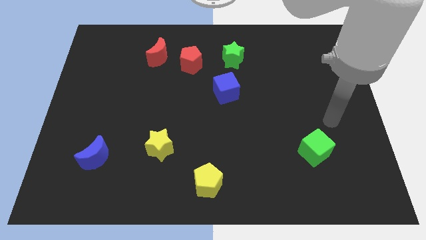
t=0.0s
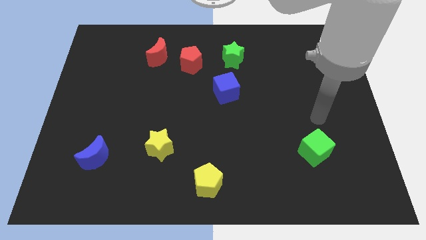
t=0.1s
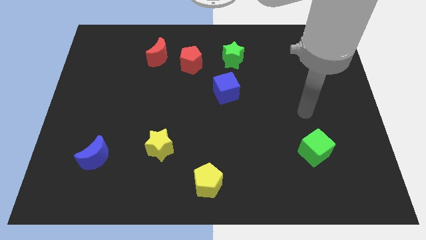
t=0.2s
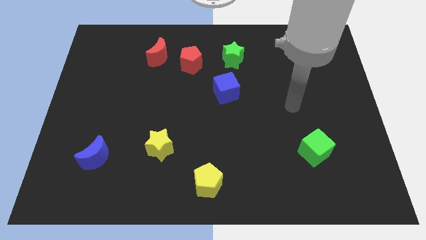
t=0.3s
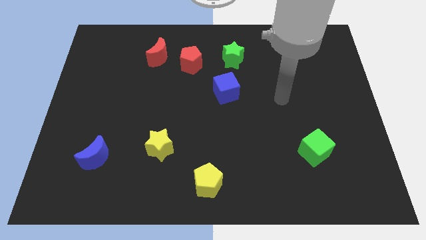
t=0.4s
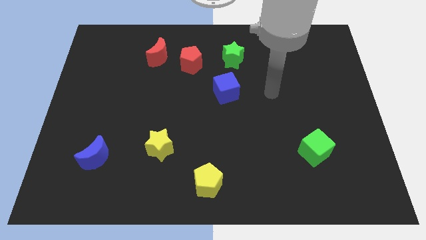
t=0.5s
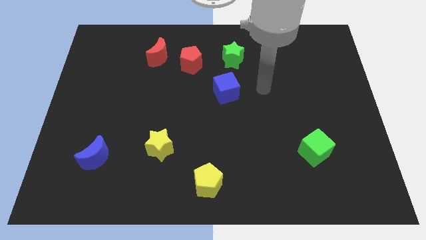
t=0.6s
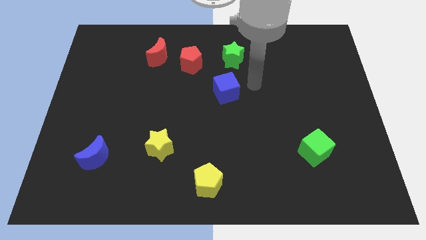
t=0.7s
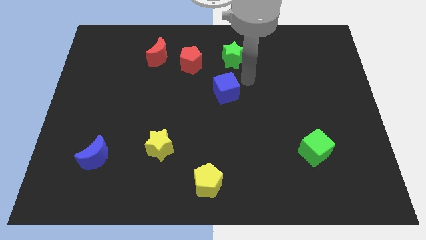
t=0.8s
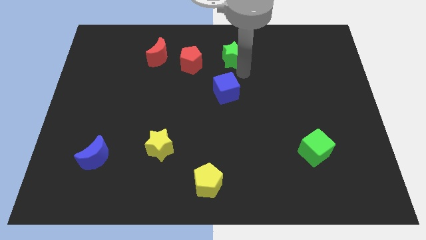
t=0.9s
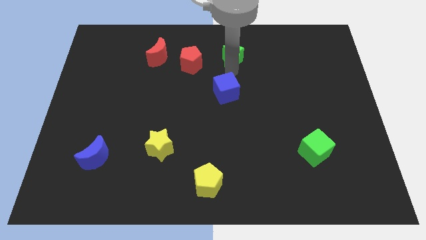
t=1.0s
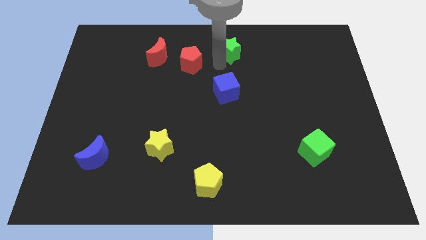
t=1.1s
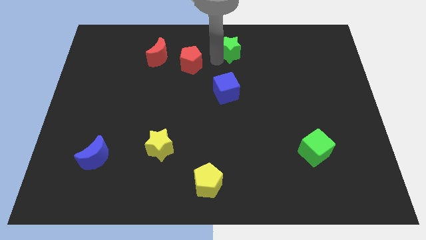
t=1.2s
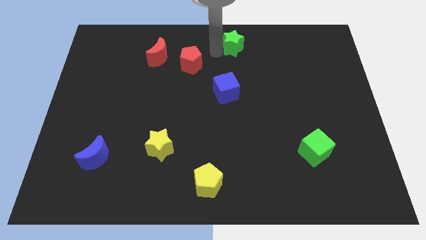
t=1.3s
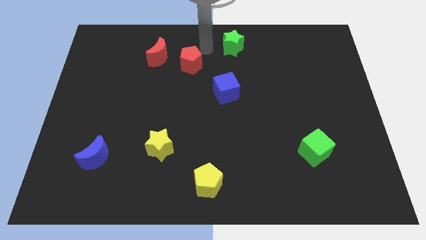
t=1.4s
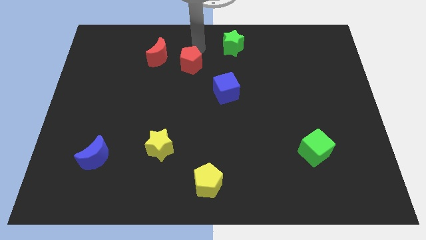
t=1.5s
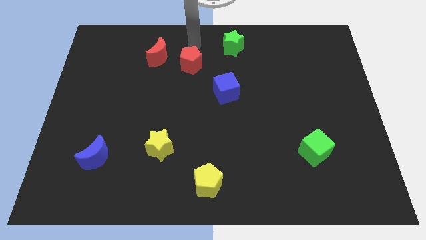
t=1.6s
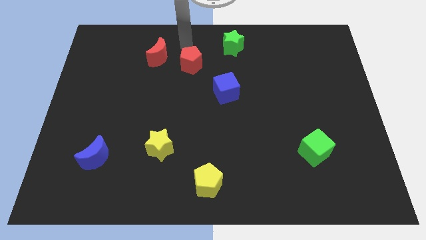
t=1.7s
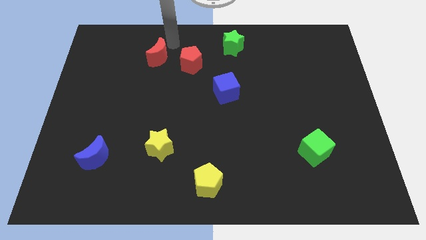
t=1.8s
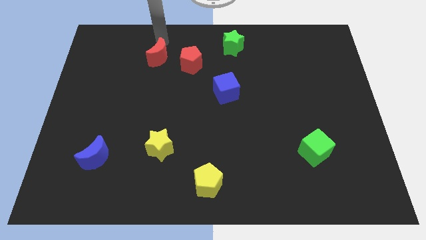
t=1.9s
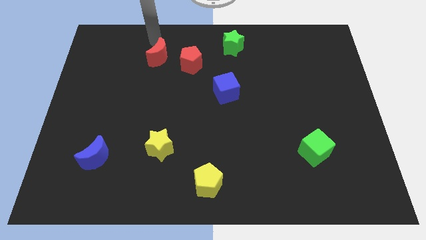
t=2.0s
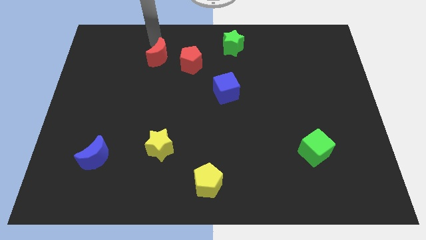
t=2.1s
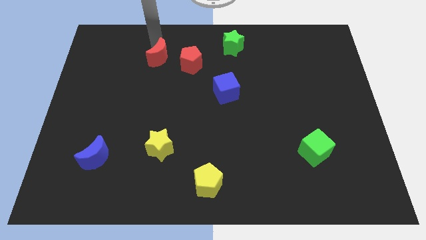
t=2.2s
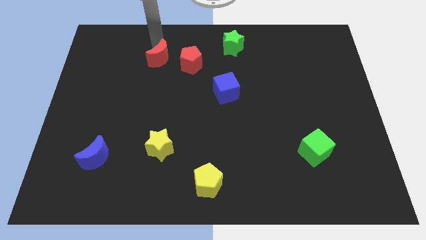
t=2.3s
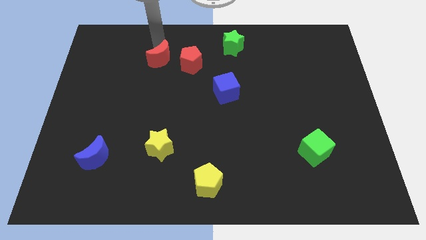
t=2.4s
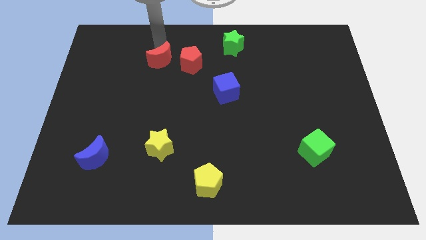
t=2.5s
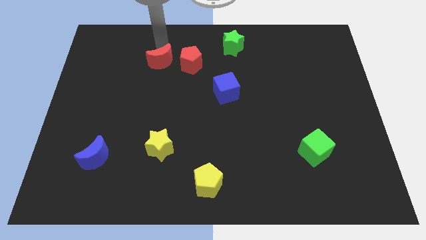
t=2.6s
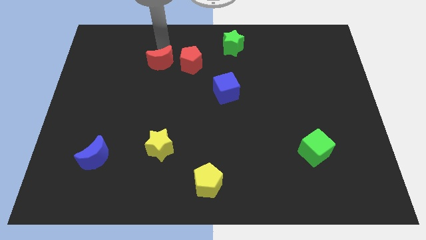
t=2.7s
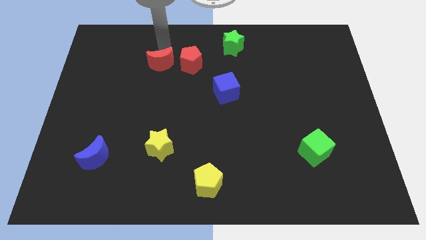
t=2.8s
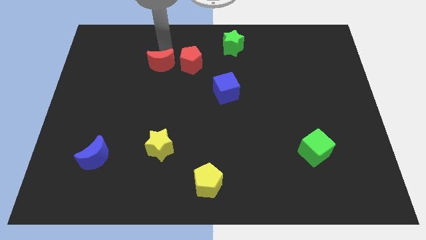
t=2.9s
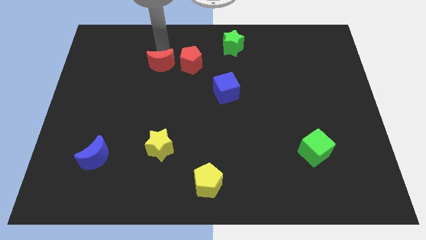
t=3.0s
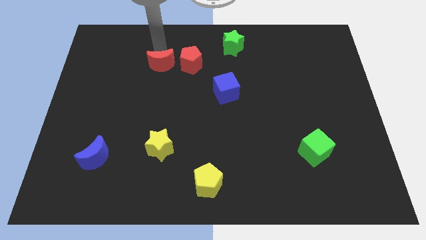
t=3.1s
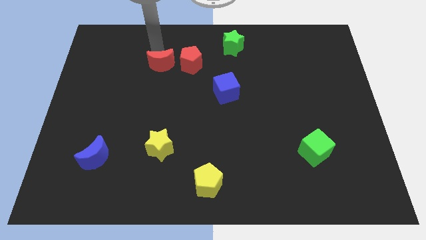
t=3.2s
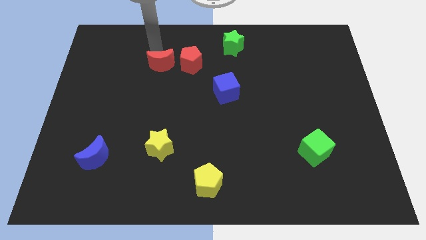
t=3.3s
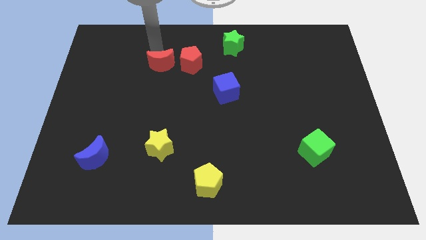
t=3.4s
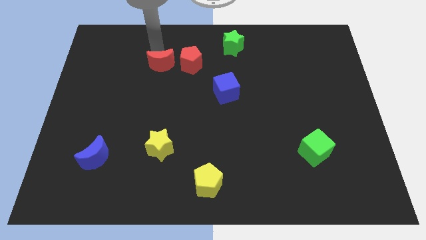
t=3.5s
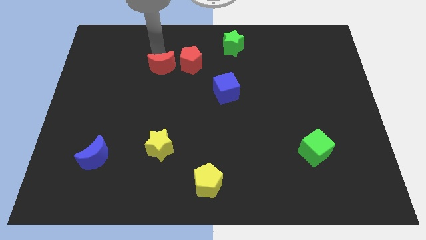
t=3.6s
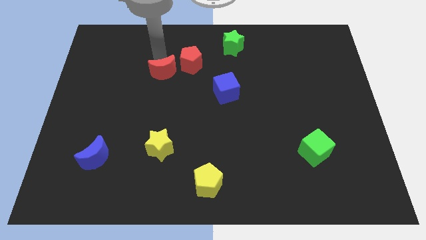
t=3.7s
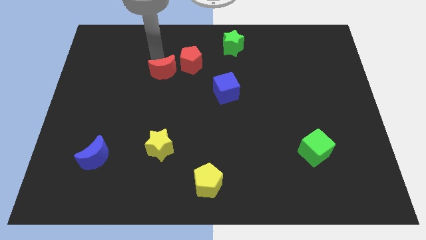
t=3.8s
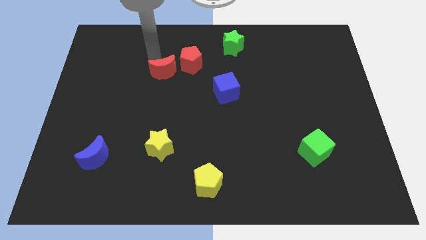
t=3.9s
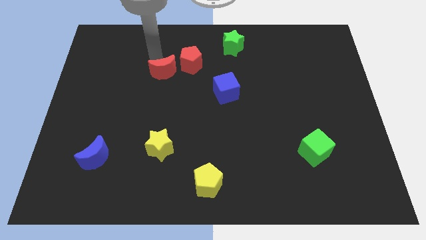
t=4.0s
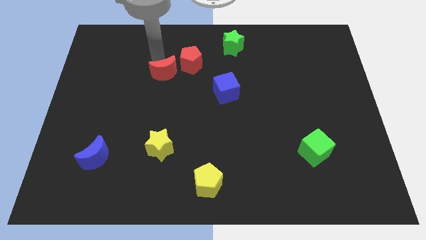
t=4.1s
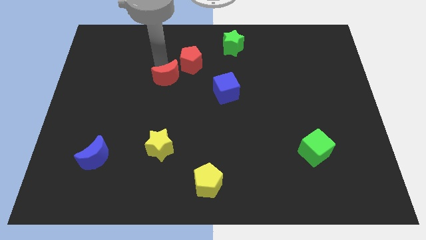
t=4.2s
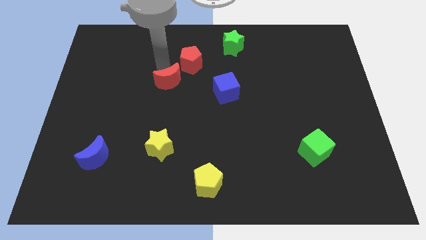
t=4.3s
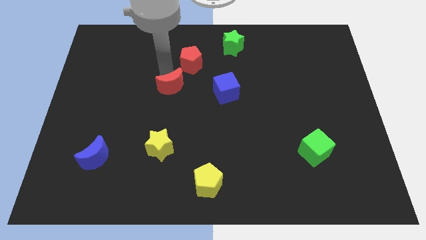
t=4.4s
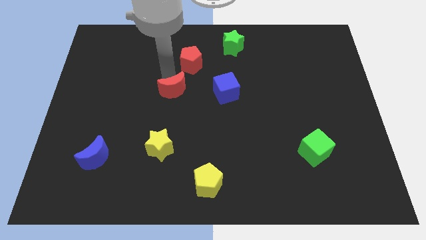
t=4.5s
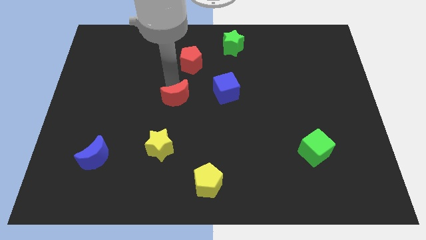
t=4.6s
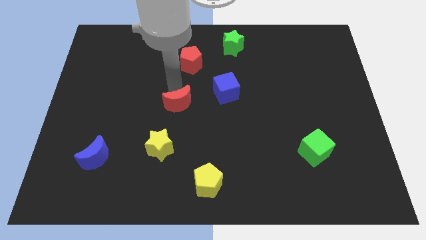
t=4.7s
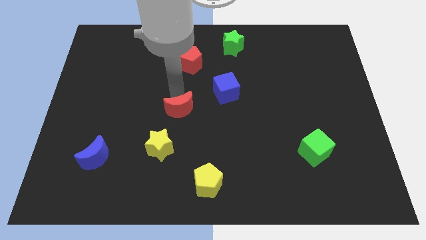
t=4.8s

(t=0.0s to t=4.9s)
put the red moon diagonally up and to the right of the yellow star

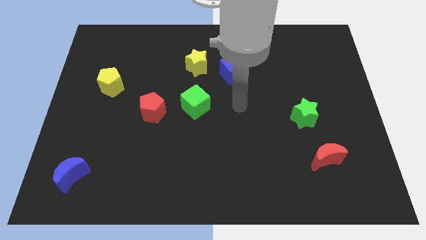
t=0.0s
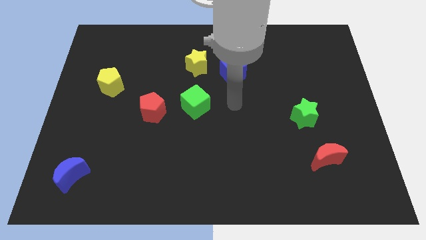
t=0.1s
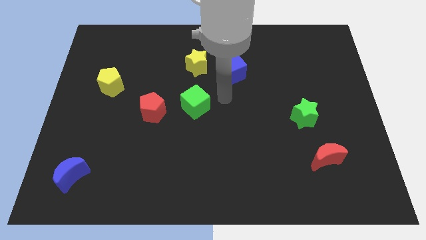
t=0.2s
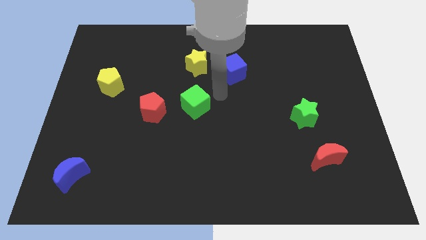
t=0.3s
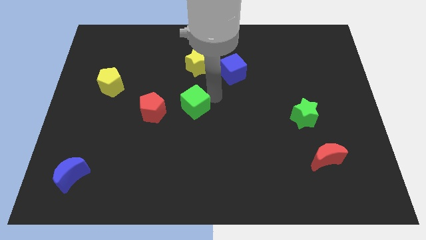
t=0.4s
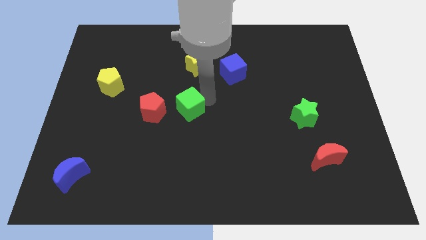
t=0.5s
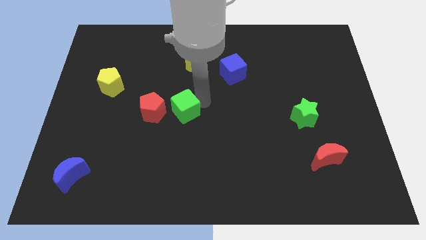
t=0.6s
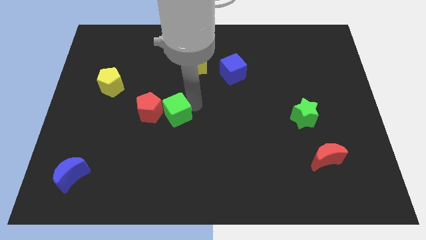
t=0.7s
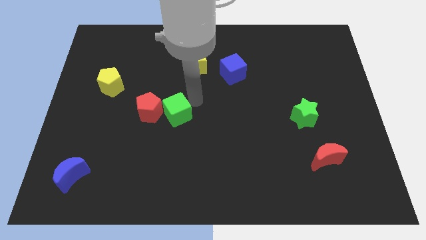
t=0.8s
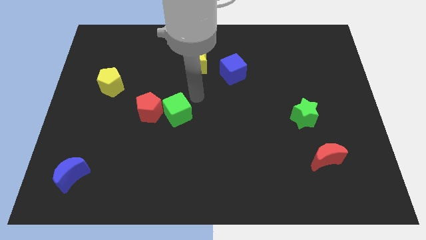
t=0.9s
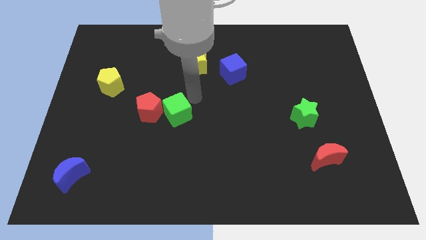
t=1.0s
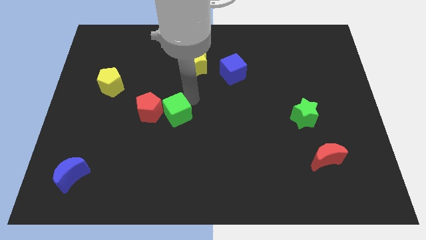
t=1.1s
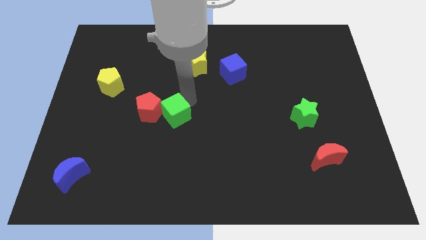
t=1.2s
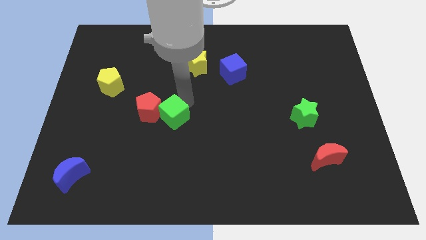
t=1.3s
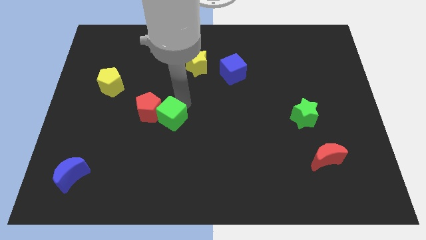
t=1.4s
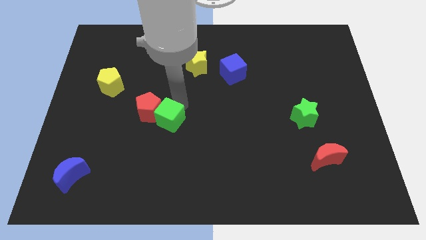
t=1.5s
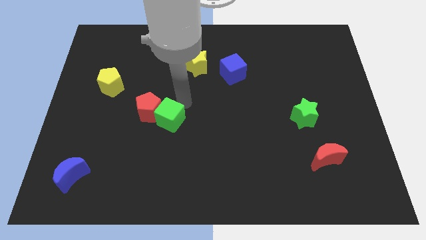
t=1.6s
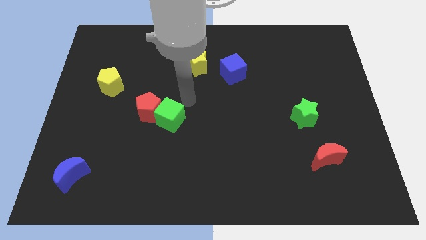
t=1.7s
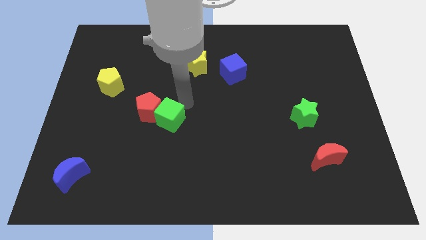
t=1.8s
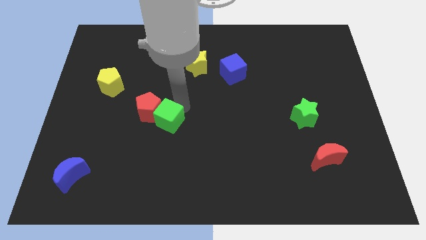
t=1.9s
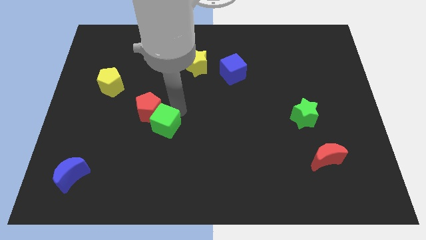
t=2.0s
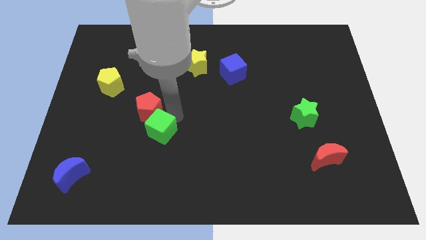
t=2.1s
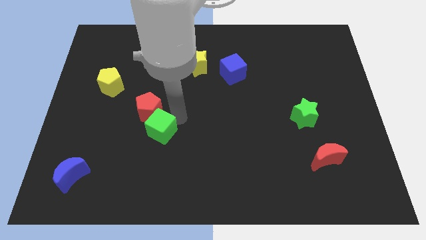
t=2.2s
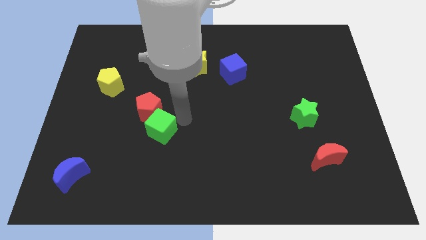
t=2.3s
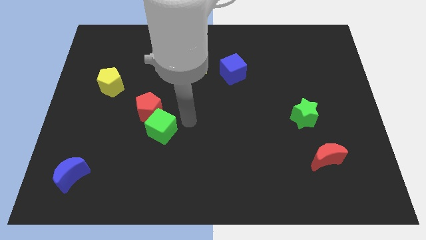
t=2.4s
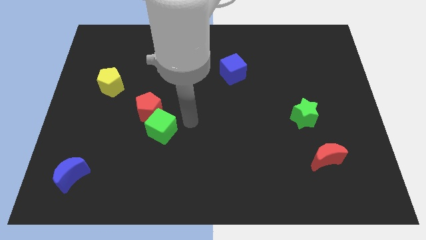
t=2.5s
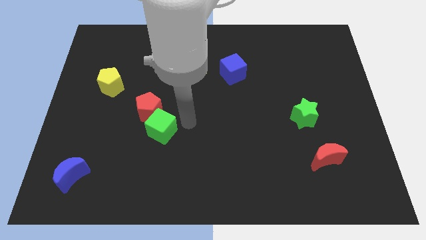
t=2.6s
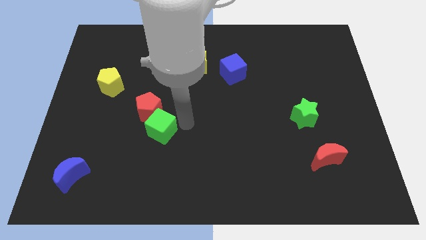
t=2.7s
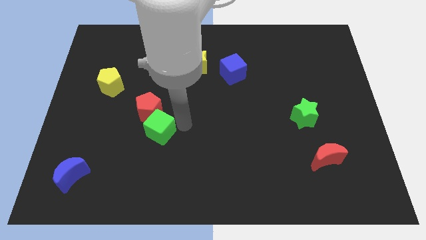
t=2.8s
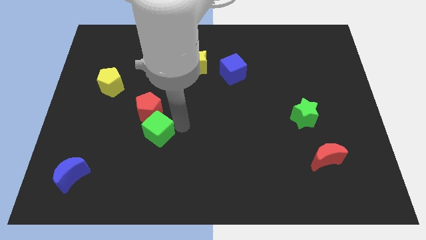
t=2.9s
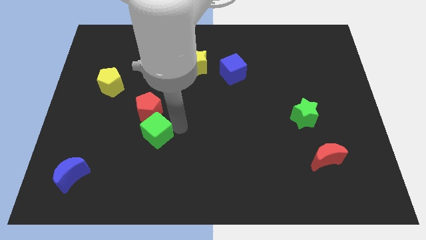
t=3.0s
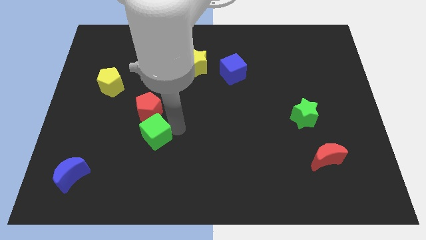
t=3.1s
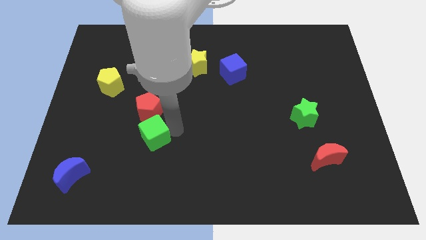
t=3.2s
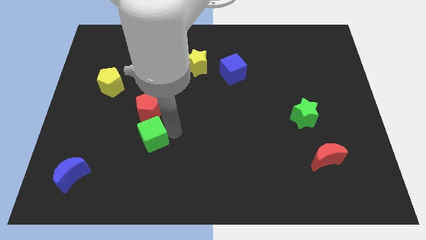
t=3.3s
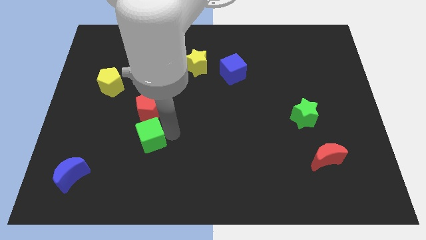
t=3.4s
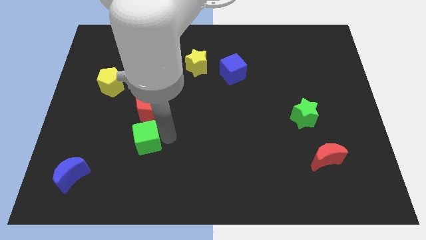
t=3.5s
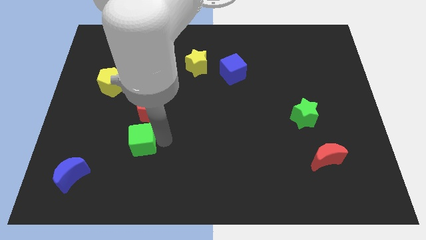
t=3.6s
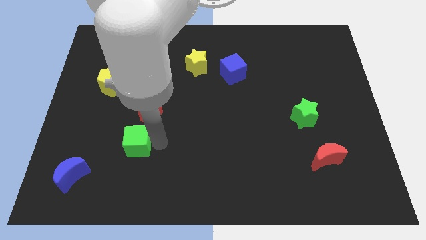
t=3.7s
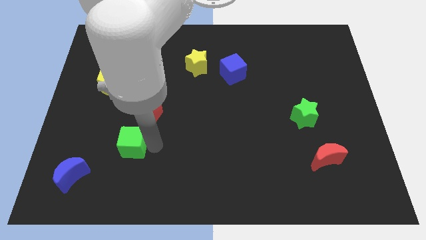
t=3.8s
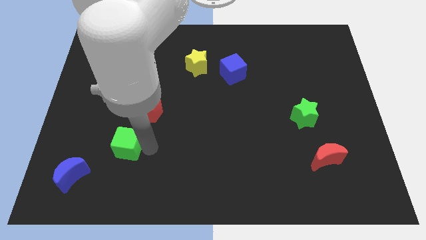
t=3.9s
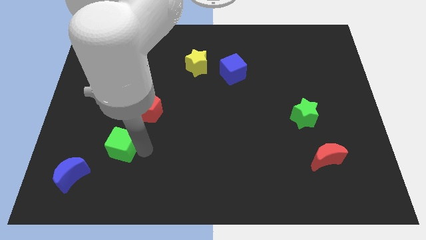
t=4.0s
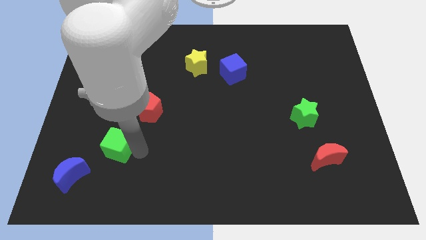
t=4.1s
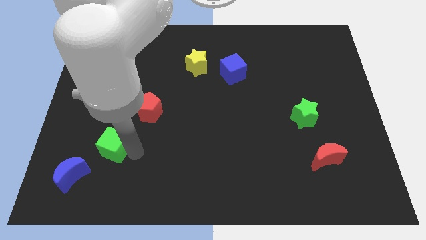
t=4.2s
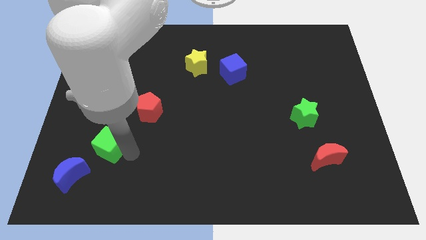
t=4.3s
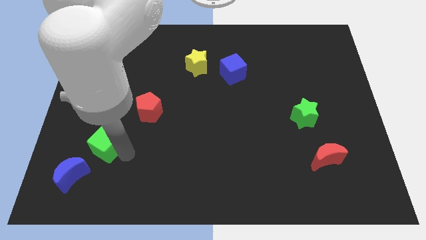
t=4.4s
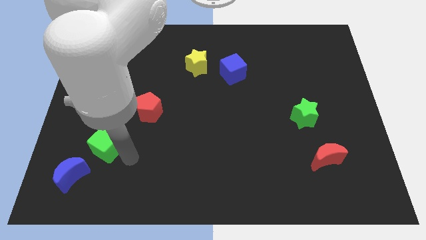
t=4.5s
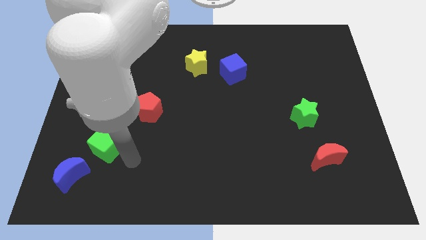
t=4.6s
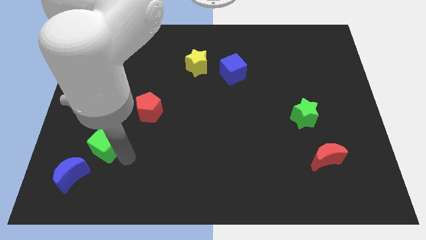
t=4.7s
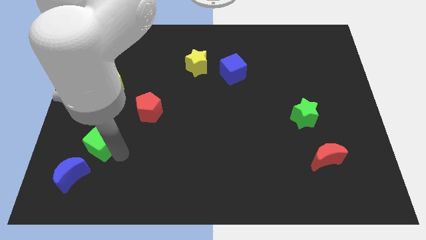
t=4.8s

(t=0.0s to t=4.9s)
slide the green cube to the top of the blue moon
